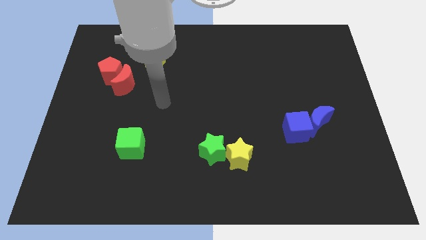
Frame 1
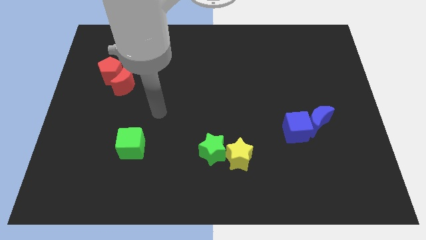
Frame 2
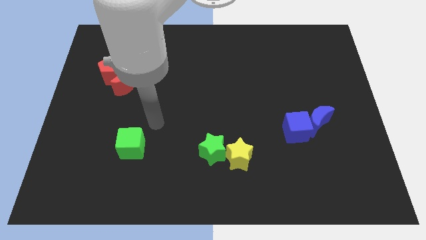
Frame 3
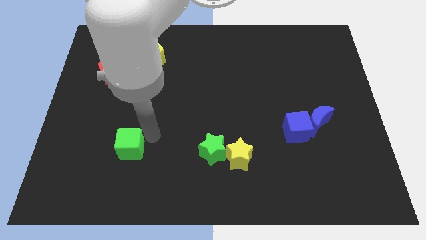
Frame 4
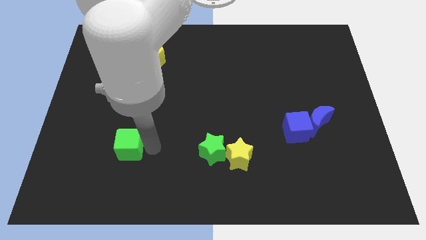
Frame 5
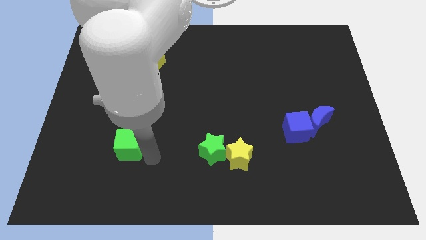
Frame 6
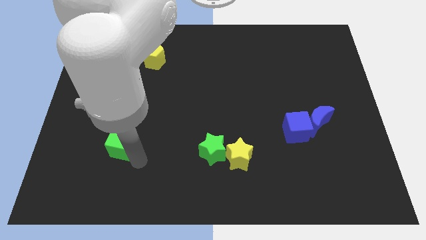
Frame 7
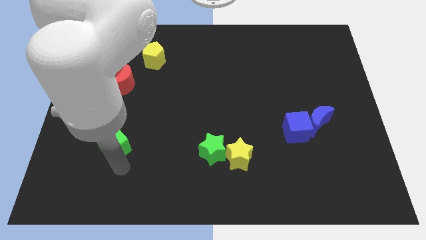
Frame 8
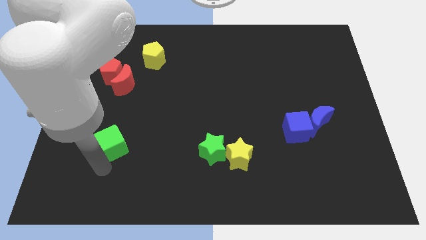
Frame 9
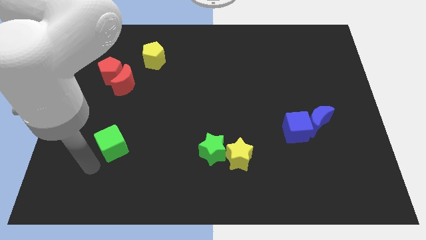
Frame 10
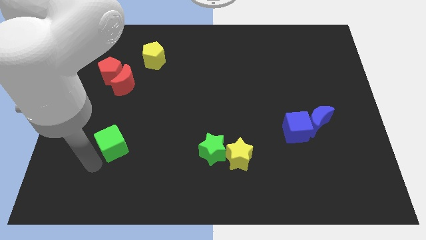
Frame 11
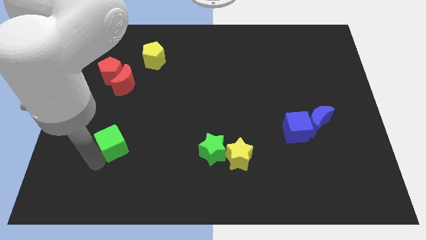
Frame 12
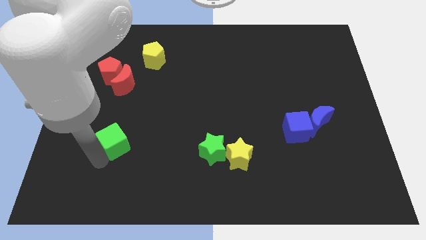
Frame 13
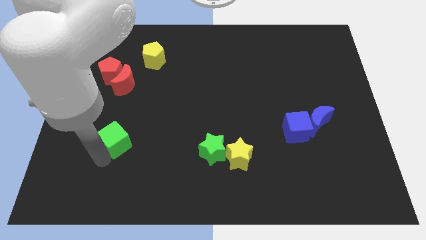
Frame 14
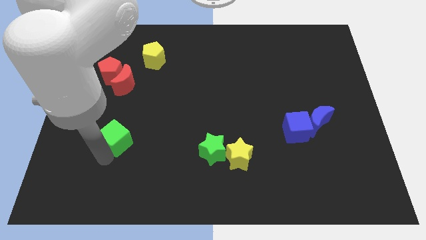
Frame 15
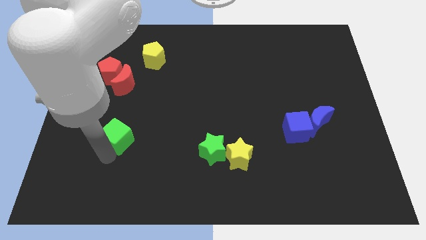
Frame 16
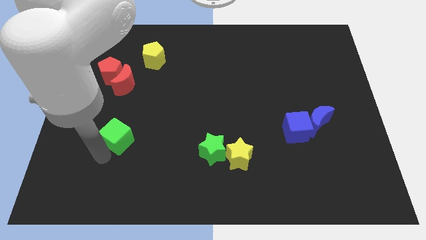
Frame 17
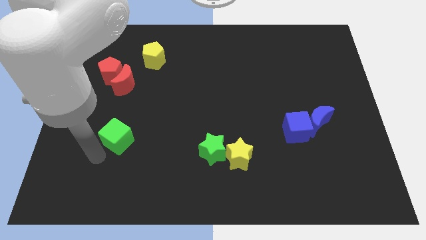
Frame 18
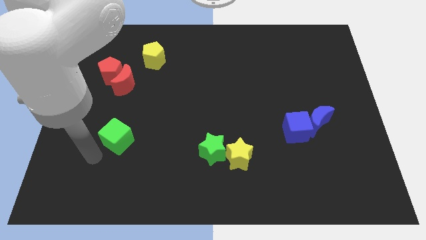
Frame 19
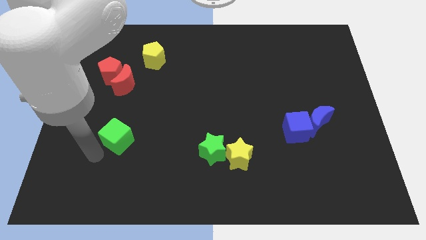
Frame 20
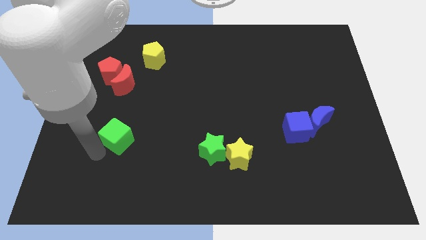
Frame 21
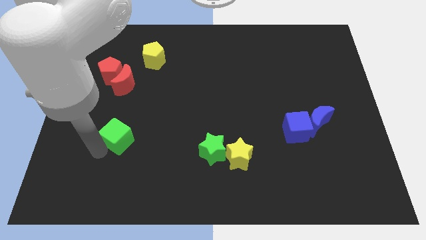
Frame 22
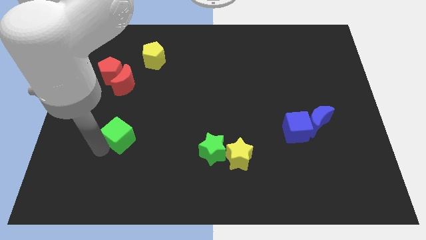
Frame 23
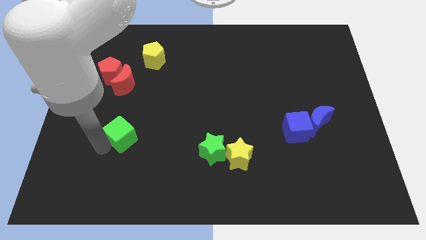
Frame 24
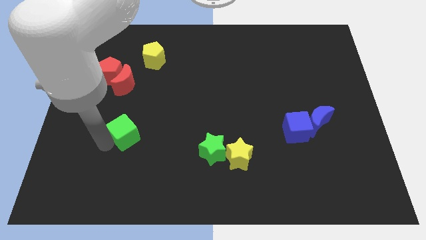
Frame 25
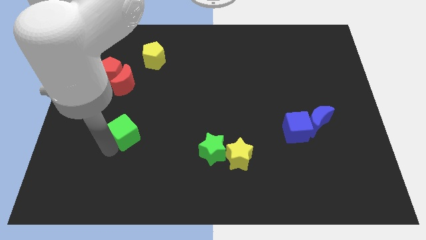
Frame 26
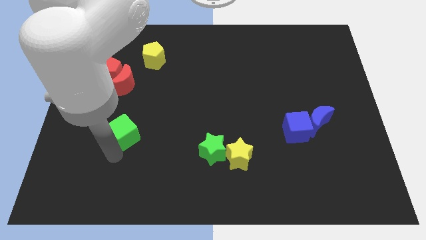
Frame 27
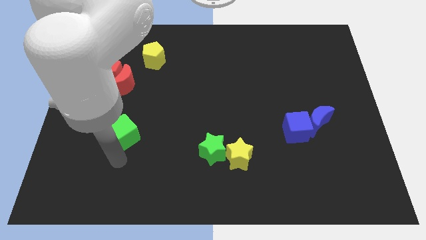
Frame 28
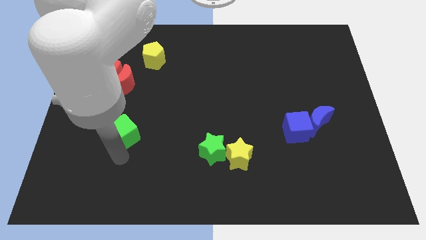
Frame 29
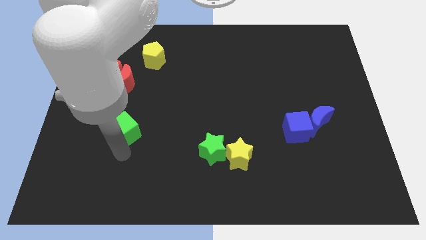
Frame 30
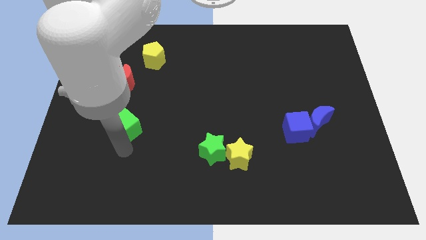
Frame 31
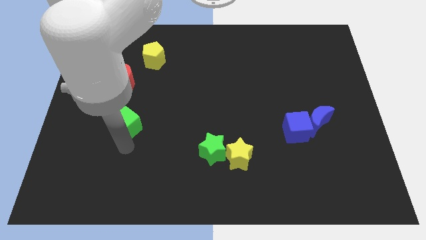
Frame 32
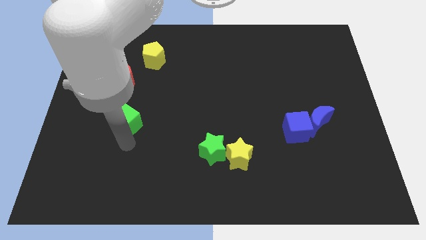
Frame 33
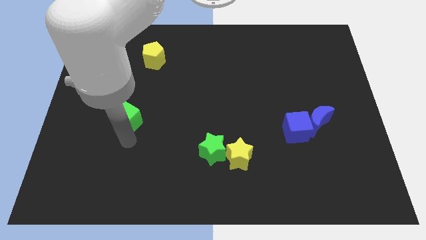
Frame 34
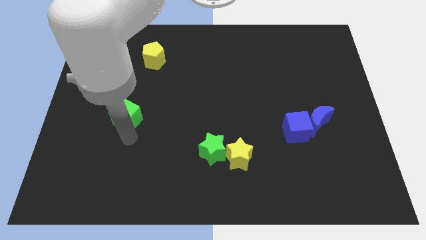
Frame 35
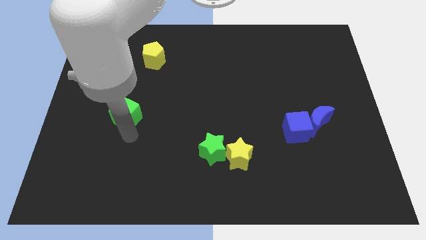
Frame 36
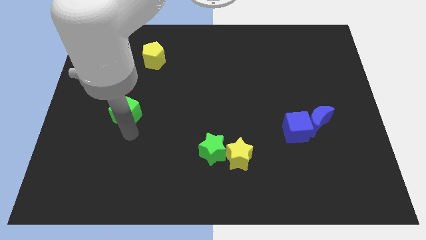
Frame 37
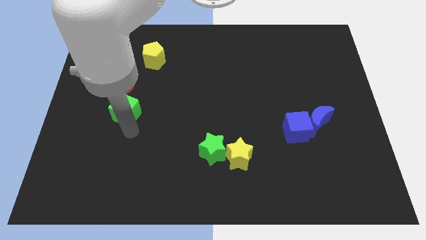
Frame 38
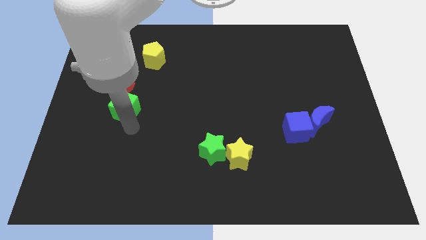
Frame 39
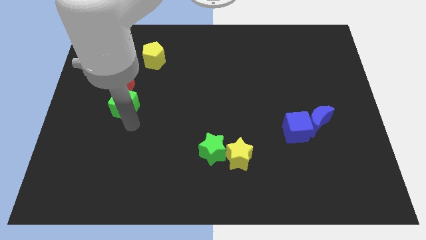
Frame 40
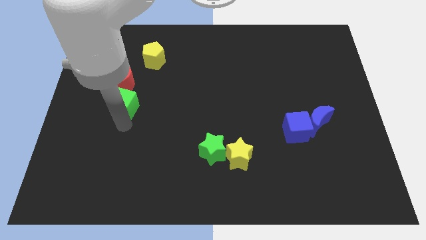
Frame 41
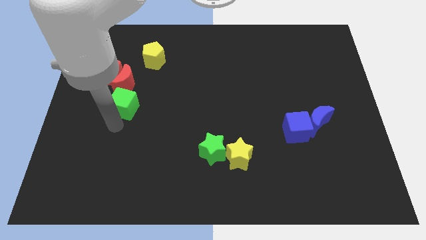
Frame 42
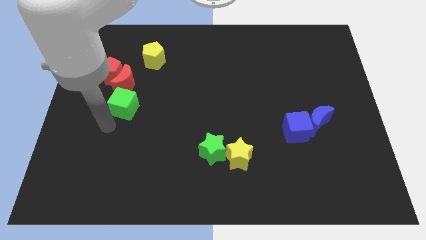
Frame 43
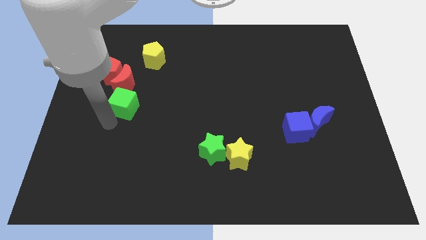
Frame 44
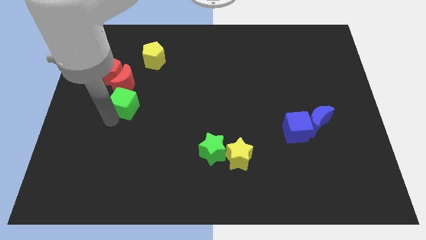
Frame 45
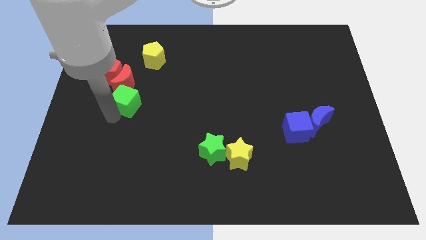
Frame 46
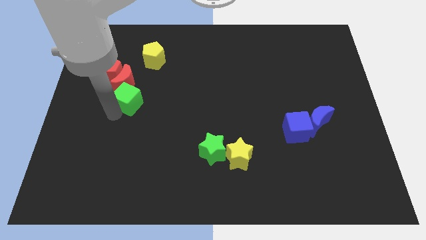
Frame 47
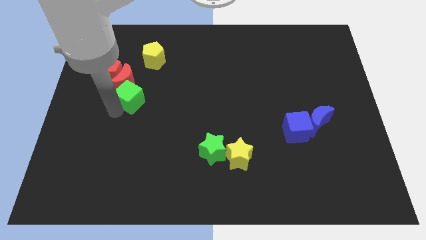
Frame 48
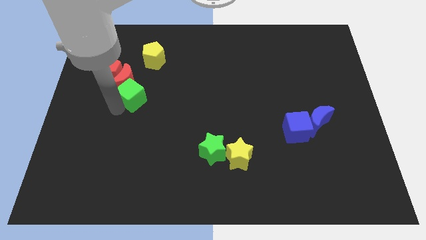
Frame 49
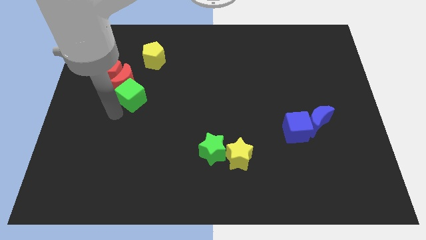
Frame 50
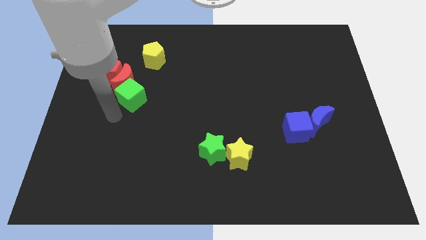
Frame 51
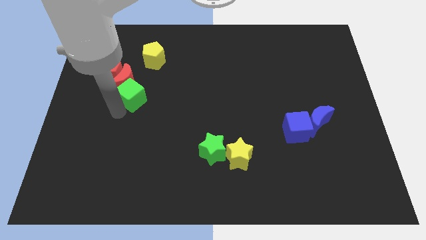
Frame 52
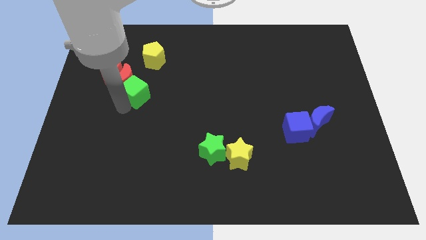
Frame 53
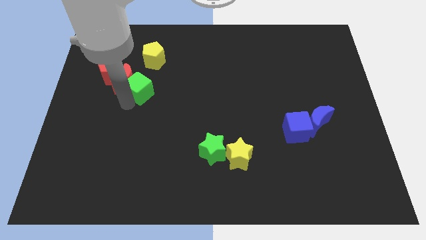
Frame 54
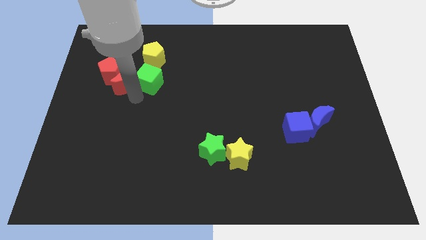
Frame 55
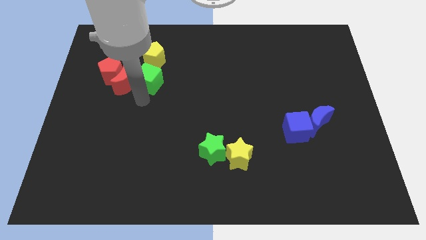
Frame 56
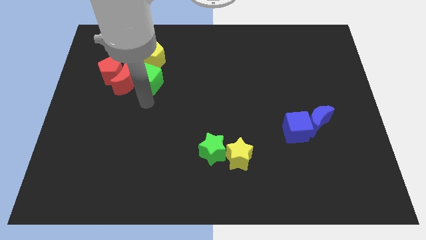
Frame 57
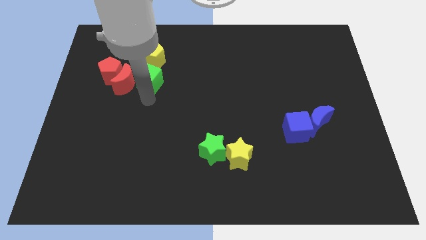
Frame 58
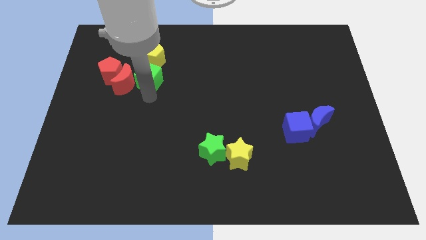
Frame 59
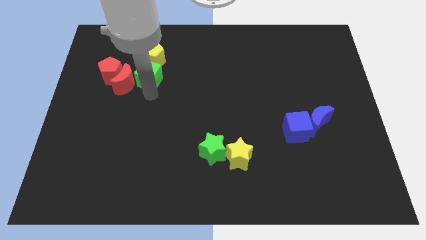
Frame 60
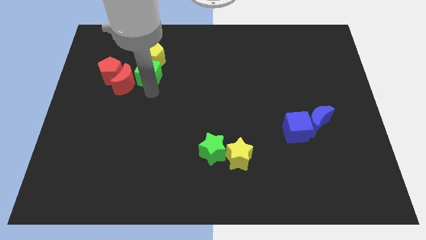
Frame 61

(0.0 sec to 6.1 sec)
slide the green cube next to the yellow pentagon
